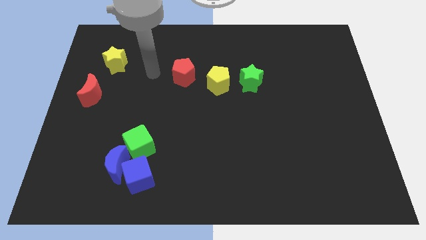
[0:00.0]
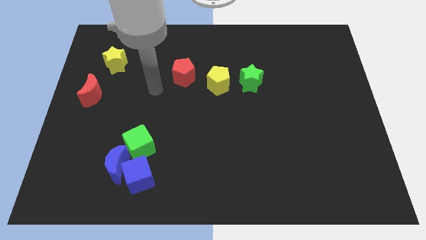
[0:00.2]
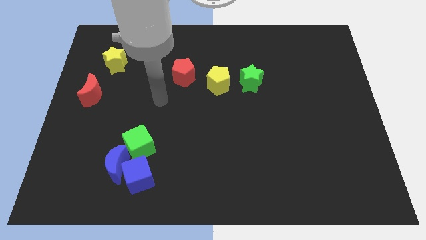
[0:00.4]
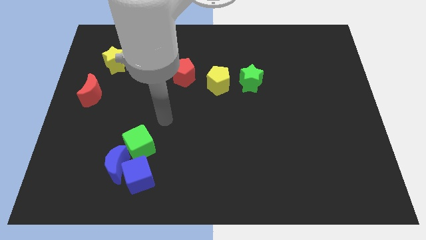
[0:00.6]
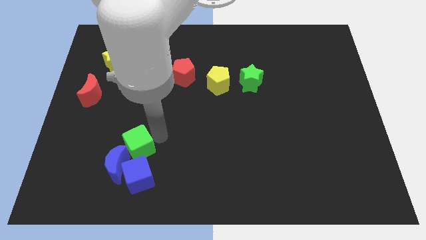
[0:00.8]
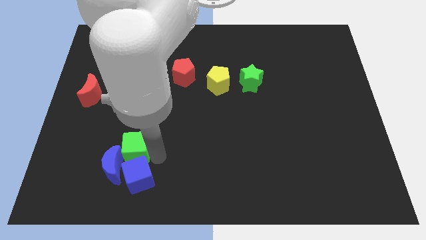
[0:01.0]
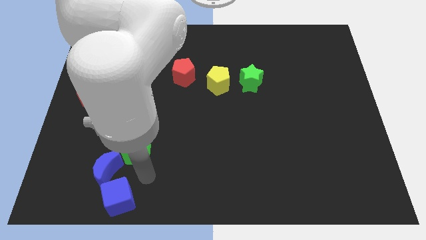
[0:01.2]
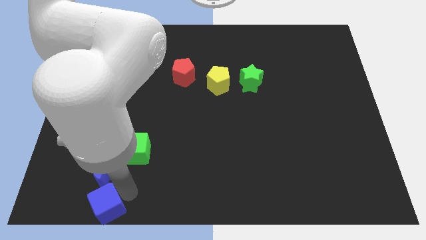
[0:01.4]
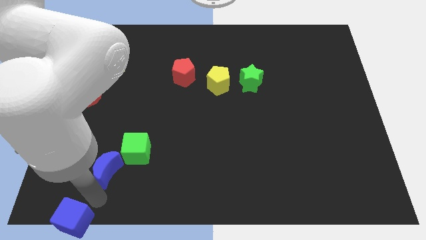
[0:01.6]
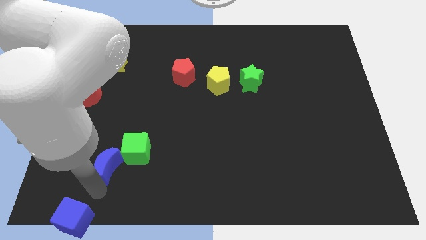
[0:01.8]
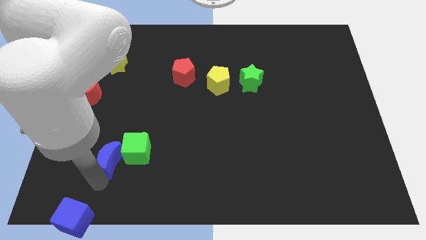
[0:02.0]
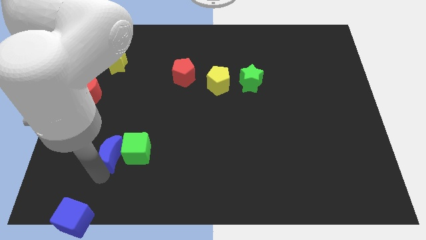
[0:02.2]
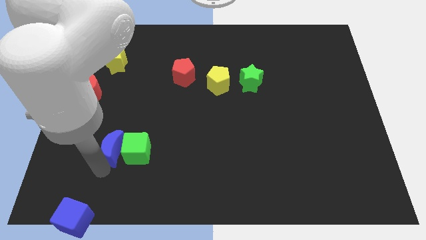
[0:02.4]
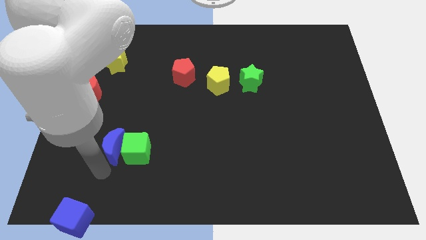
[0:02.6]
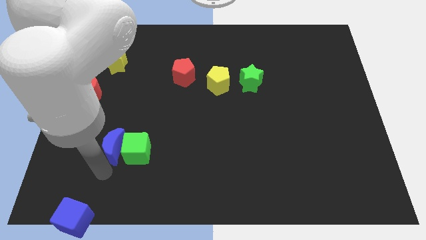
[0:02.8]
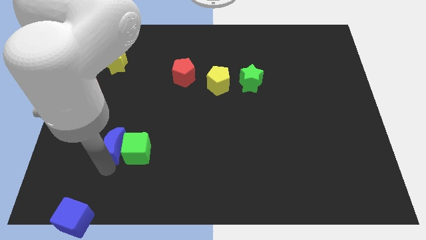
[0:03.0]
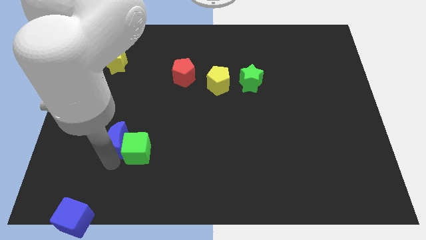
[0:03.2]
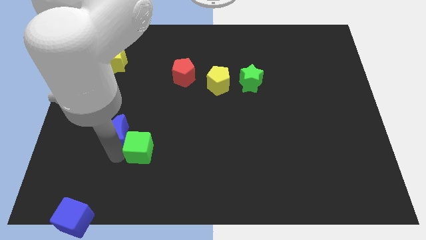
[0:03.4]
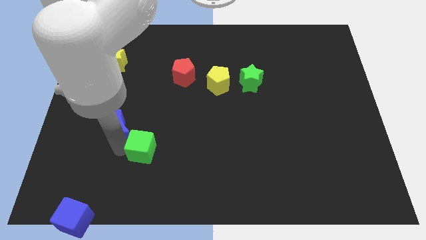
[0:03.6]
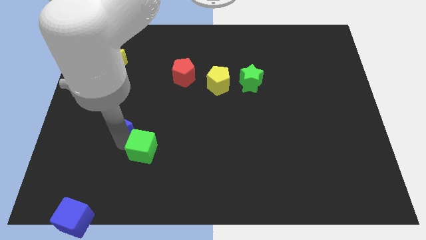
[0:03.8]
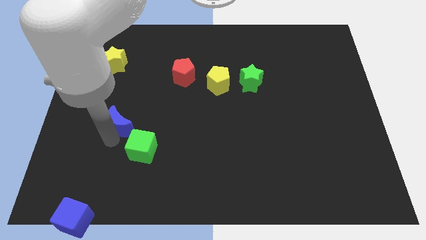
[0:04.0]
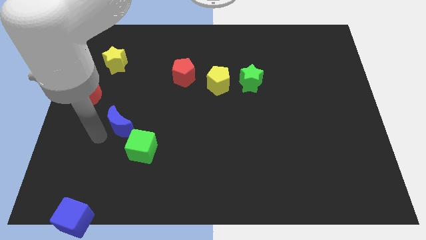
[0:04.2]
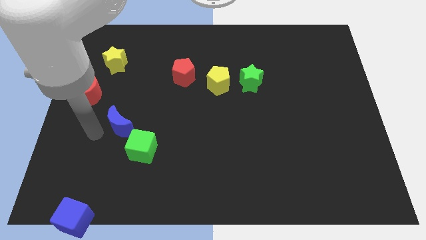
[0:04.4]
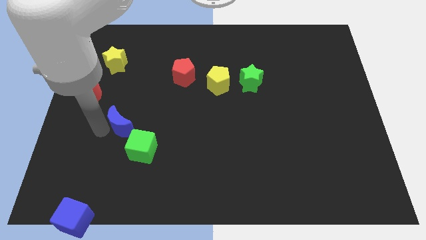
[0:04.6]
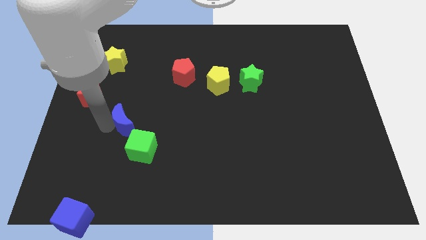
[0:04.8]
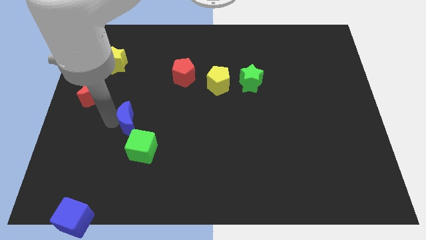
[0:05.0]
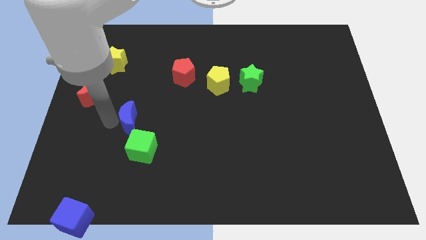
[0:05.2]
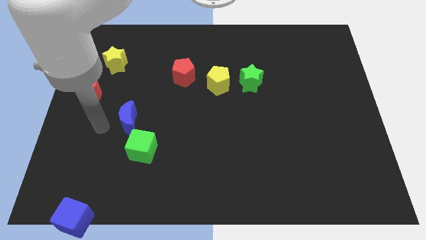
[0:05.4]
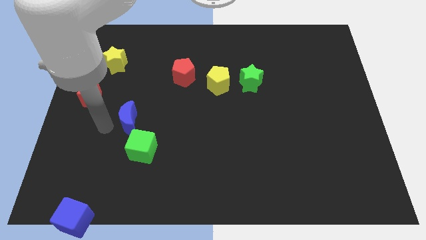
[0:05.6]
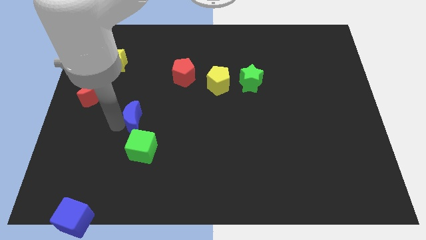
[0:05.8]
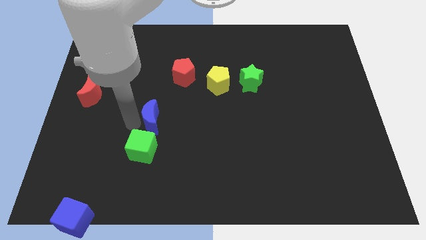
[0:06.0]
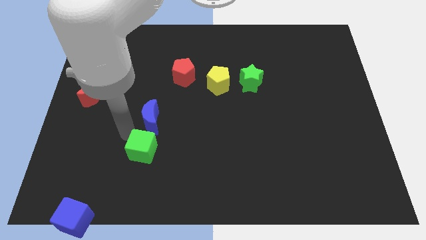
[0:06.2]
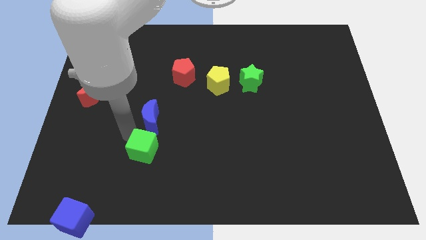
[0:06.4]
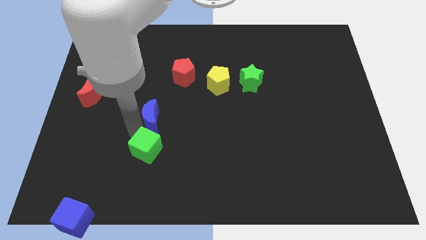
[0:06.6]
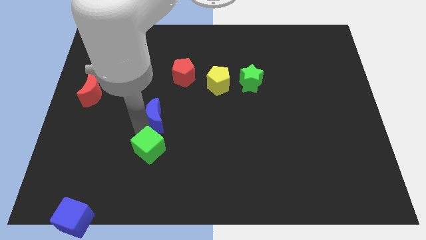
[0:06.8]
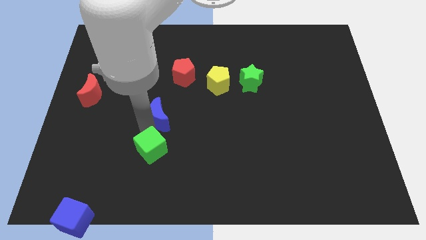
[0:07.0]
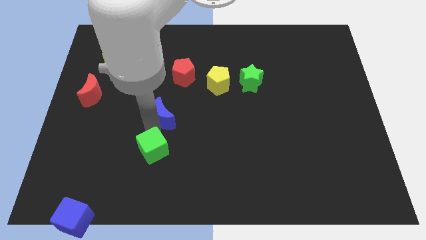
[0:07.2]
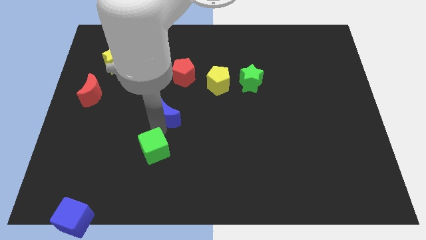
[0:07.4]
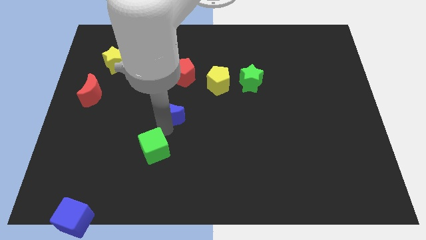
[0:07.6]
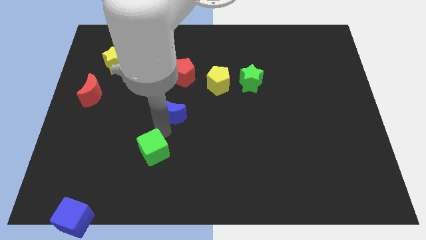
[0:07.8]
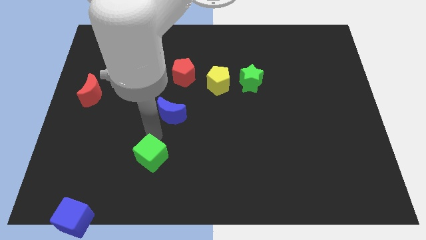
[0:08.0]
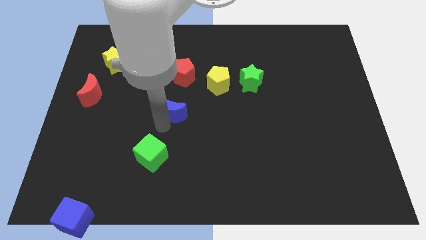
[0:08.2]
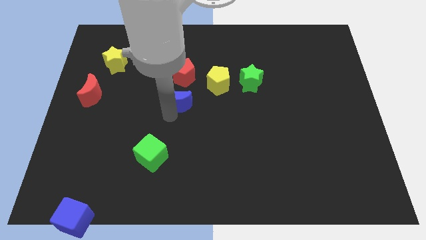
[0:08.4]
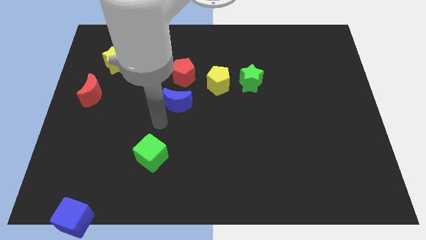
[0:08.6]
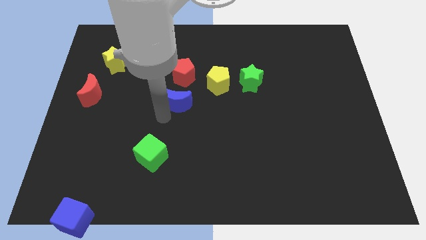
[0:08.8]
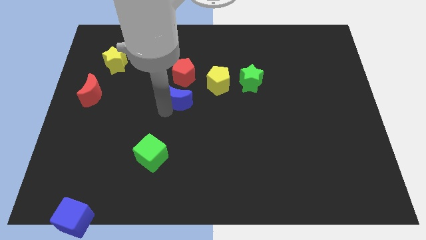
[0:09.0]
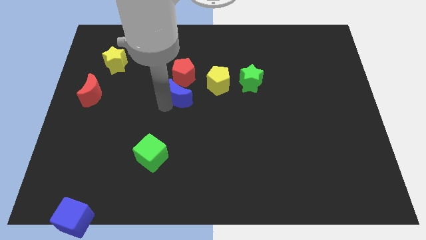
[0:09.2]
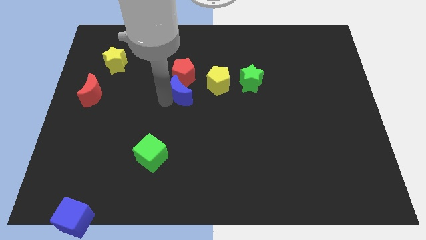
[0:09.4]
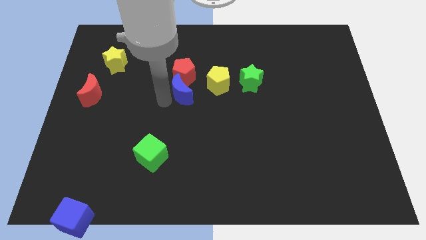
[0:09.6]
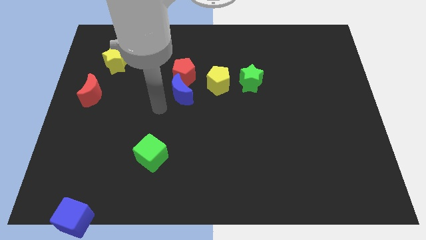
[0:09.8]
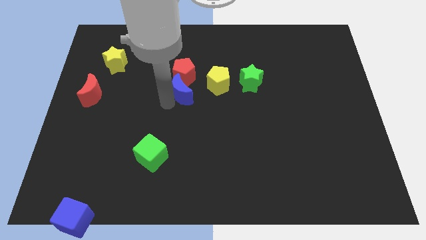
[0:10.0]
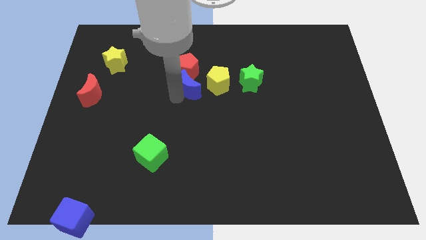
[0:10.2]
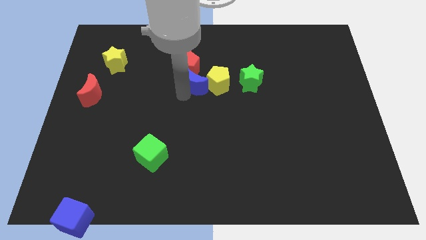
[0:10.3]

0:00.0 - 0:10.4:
put the blue moon to the top left side of the yellow pentagon

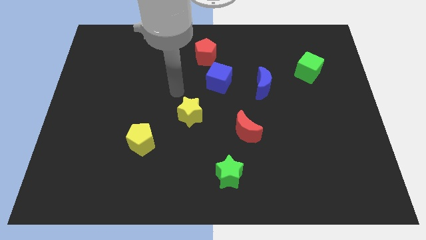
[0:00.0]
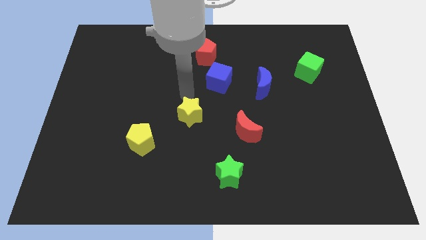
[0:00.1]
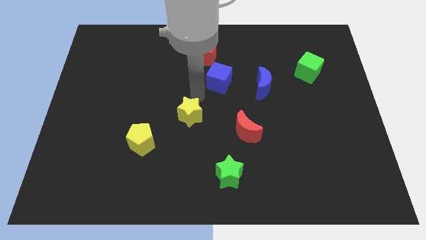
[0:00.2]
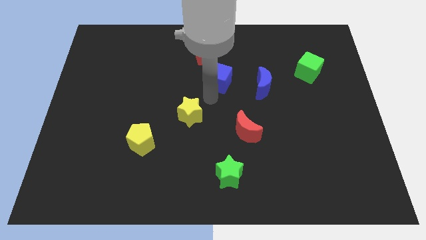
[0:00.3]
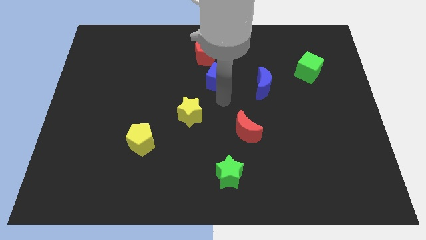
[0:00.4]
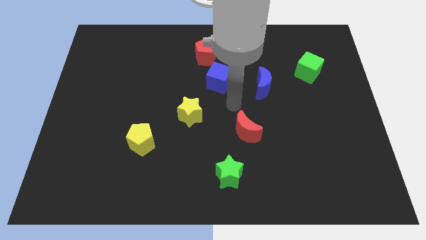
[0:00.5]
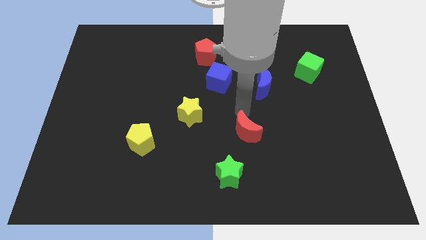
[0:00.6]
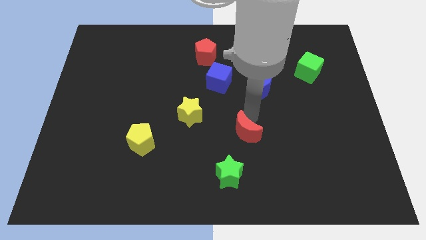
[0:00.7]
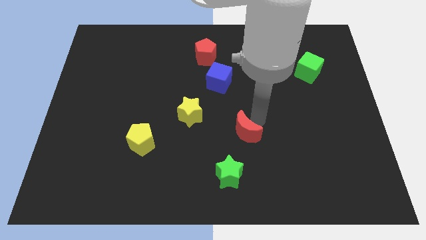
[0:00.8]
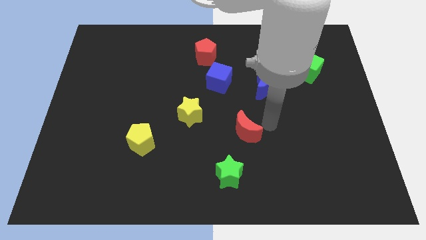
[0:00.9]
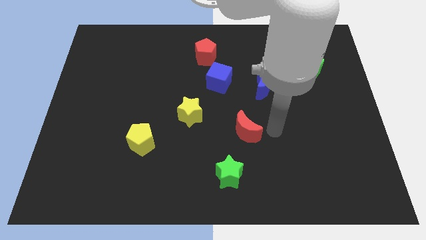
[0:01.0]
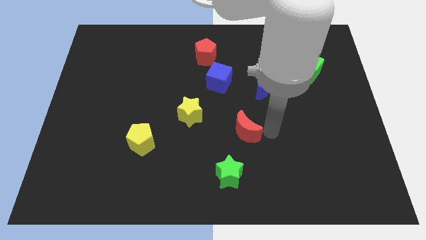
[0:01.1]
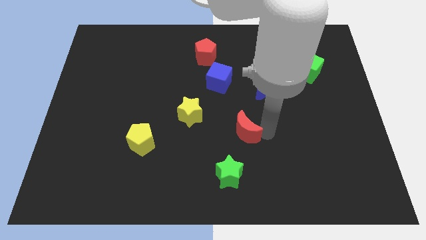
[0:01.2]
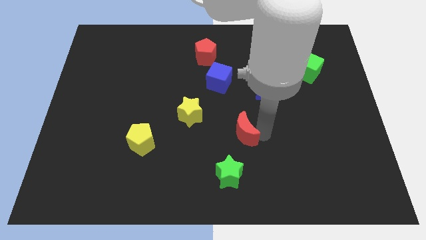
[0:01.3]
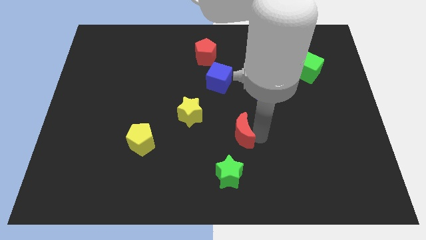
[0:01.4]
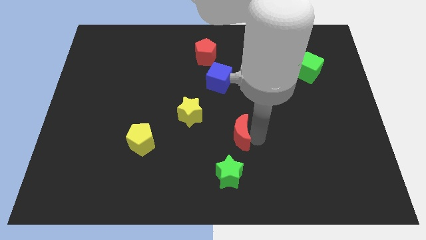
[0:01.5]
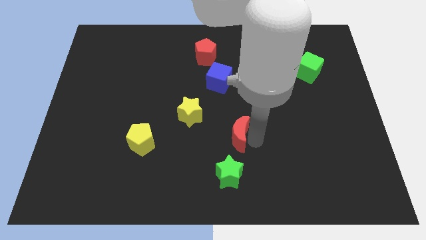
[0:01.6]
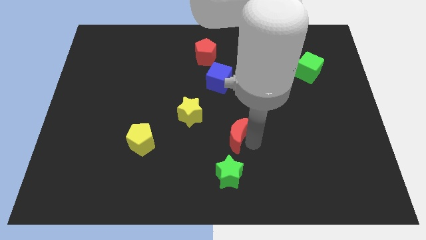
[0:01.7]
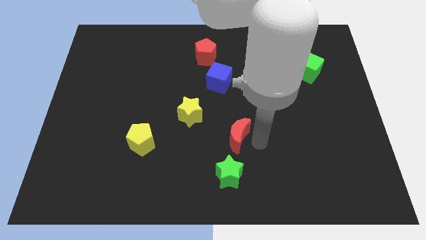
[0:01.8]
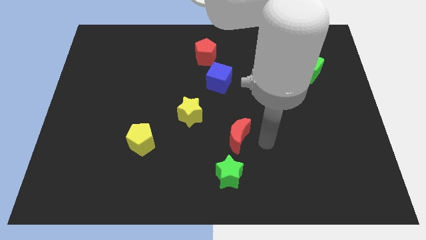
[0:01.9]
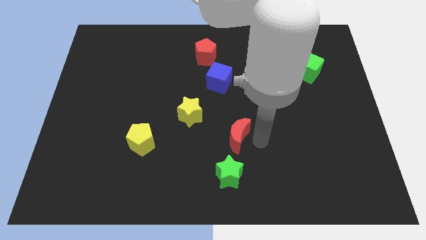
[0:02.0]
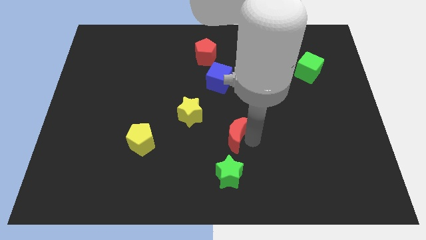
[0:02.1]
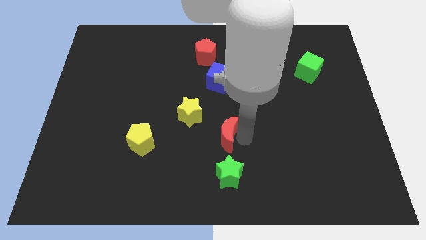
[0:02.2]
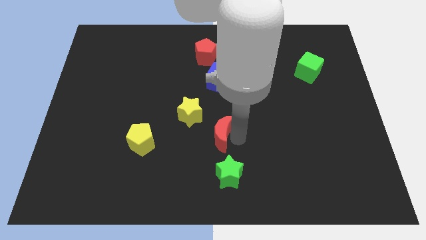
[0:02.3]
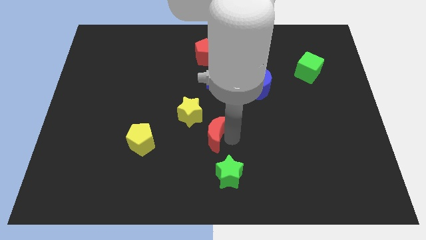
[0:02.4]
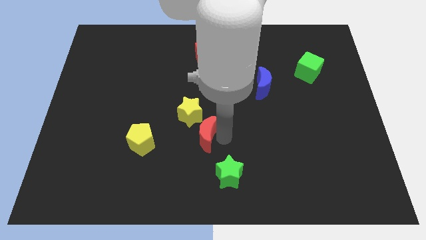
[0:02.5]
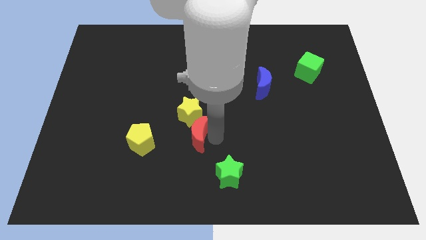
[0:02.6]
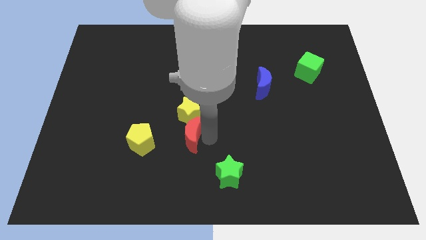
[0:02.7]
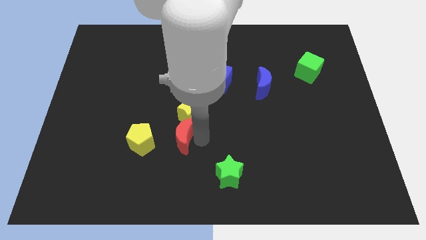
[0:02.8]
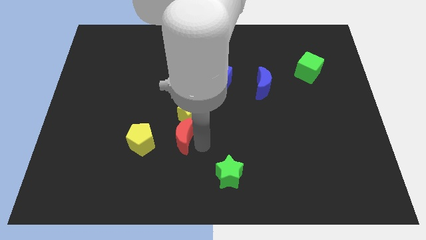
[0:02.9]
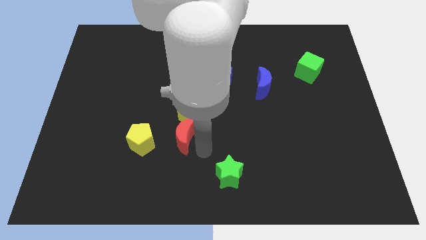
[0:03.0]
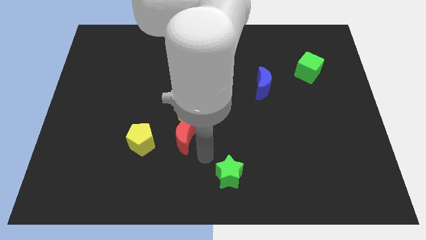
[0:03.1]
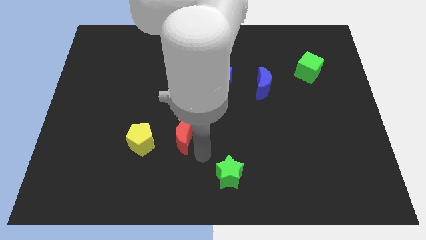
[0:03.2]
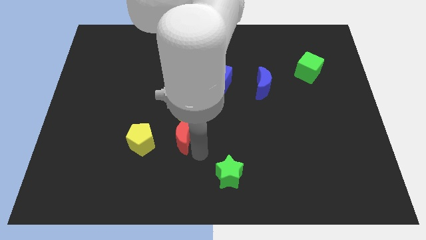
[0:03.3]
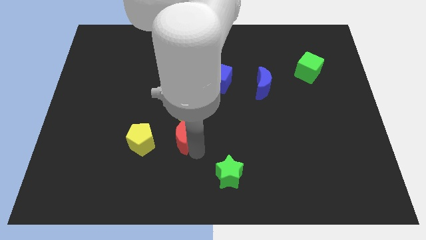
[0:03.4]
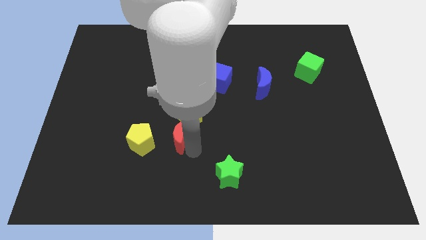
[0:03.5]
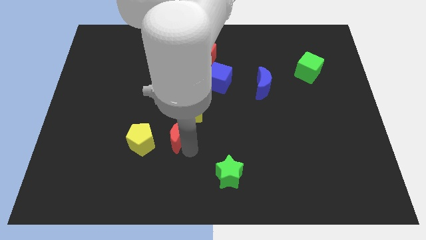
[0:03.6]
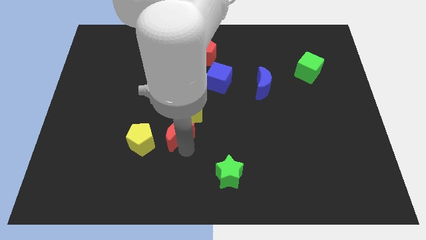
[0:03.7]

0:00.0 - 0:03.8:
push the red moon diagonally up and to the right of the yellow pentagon
